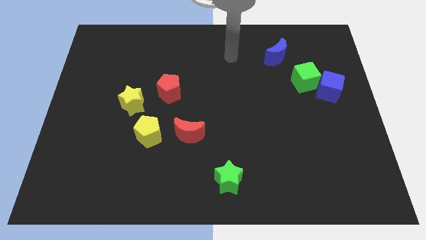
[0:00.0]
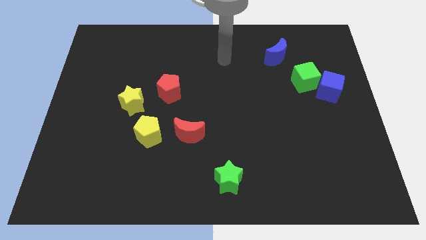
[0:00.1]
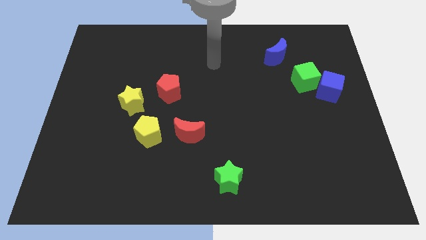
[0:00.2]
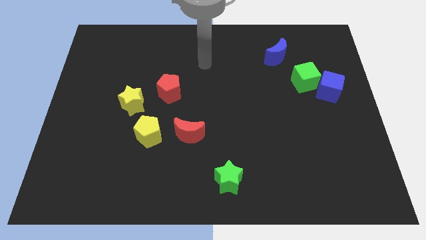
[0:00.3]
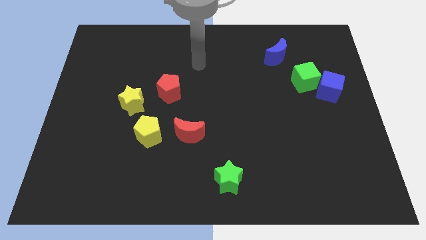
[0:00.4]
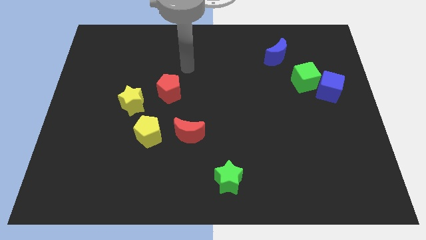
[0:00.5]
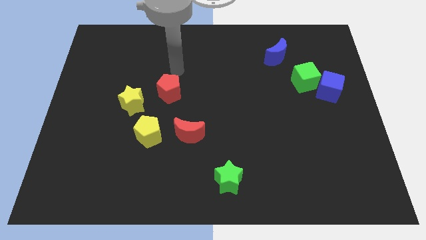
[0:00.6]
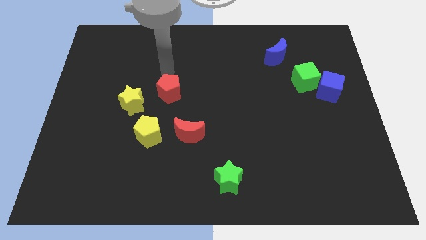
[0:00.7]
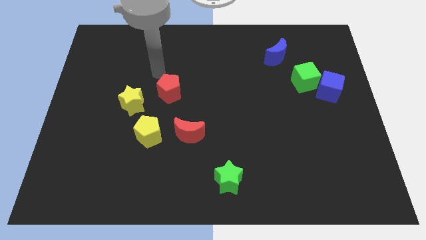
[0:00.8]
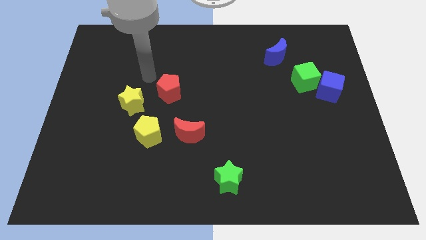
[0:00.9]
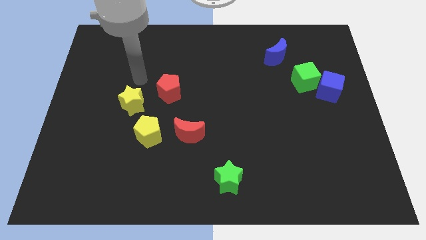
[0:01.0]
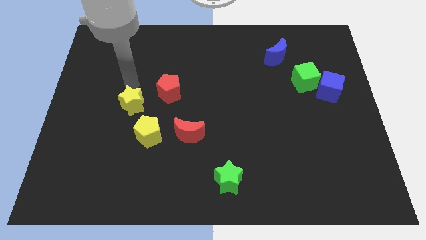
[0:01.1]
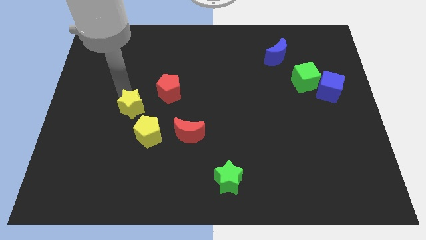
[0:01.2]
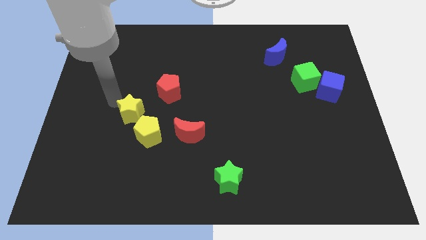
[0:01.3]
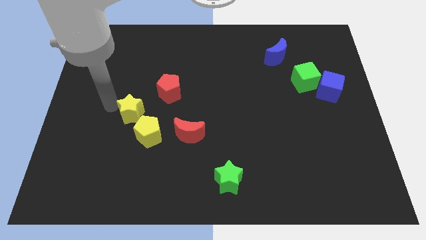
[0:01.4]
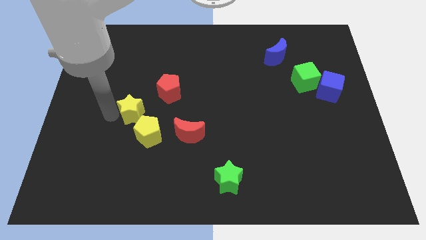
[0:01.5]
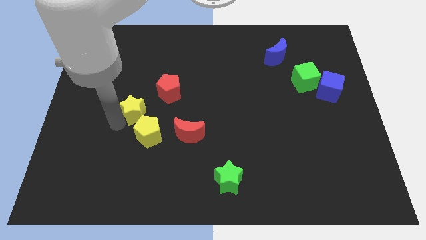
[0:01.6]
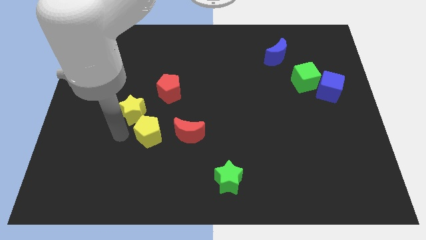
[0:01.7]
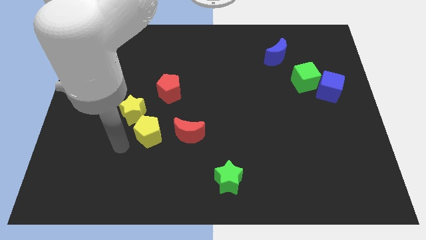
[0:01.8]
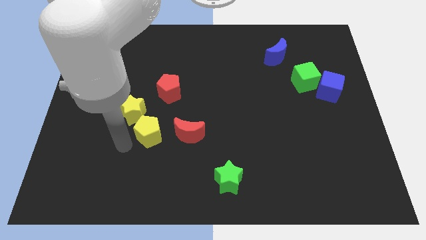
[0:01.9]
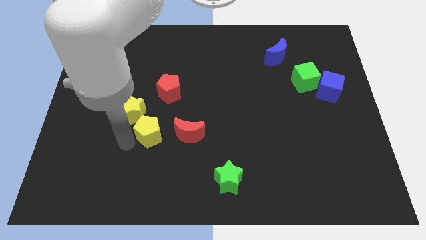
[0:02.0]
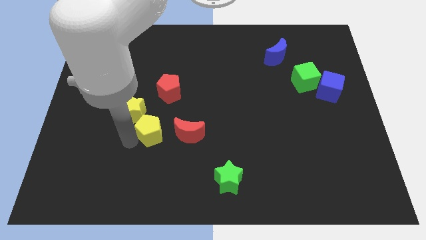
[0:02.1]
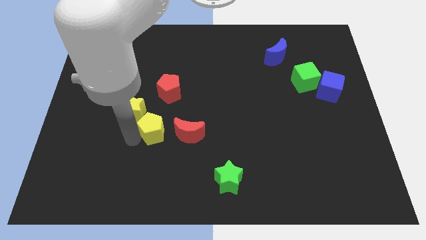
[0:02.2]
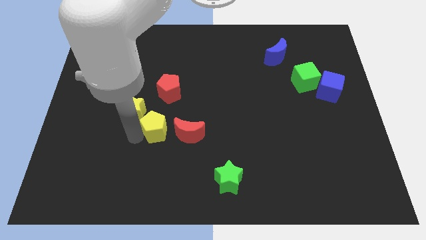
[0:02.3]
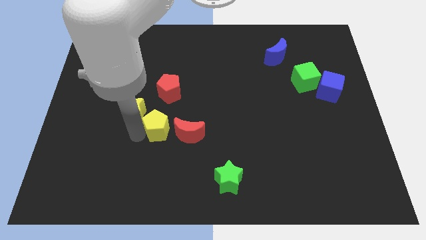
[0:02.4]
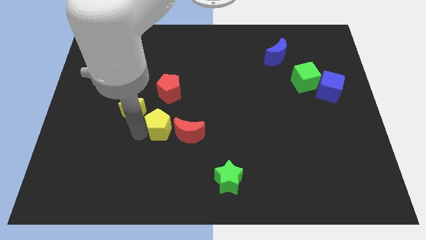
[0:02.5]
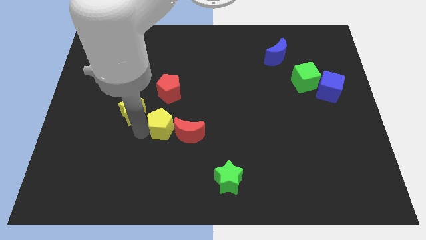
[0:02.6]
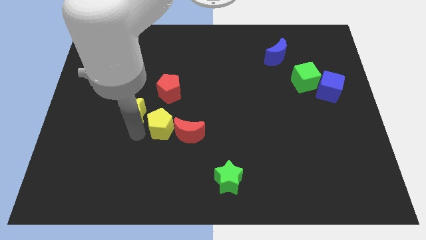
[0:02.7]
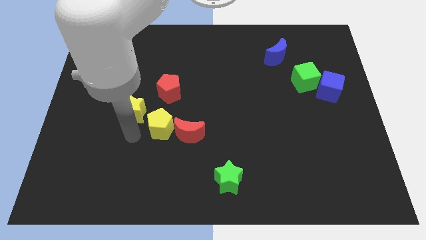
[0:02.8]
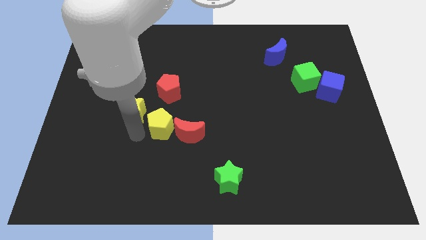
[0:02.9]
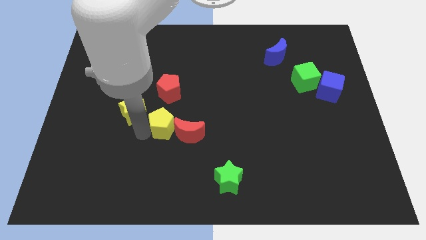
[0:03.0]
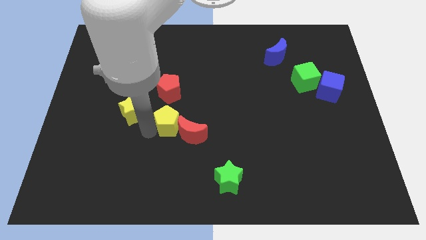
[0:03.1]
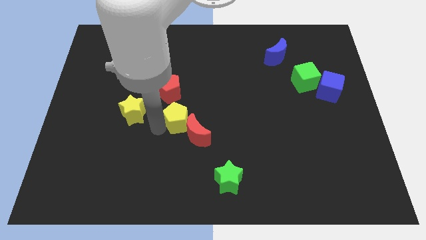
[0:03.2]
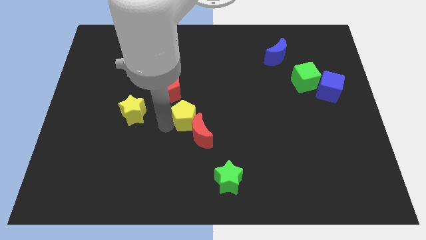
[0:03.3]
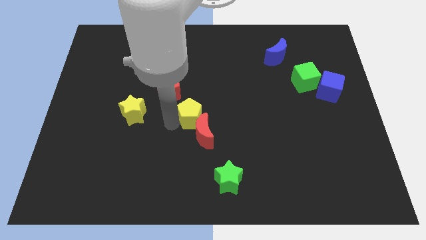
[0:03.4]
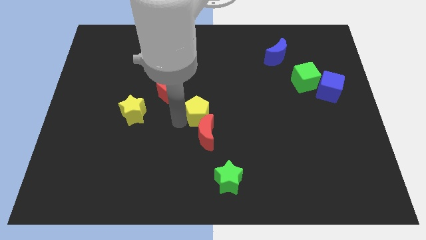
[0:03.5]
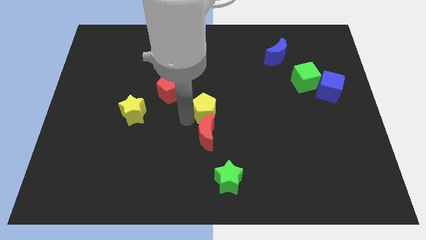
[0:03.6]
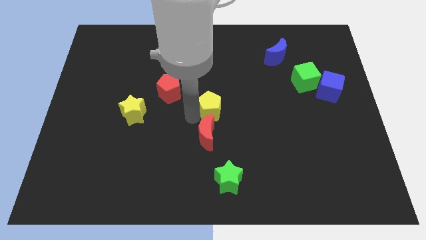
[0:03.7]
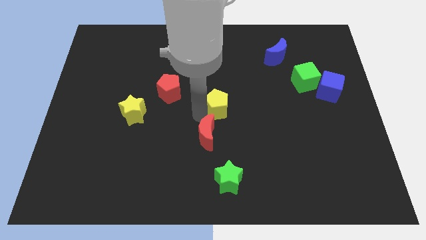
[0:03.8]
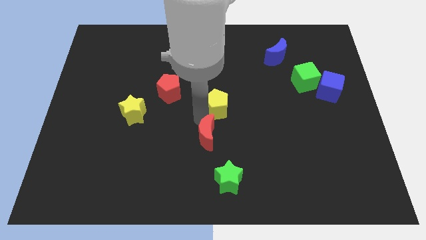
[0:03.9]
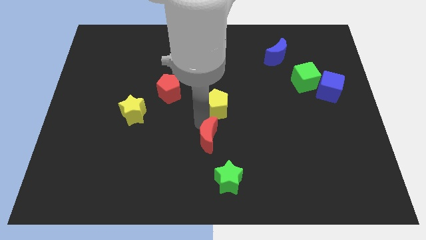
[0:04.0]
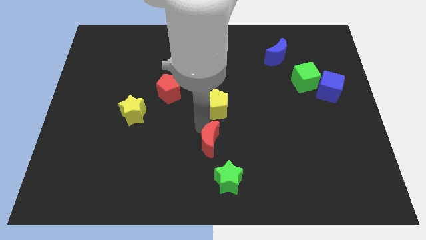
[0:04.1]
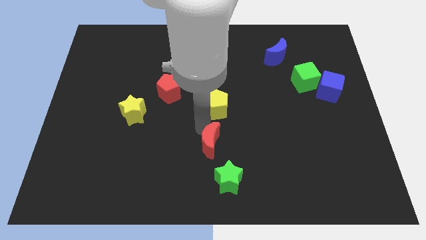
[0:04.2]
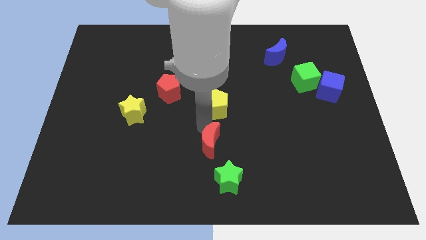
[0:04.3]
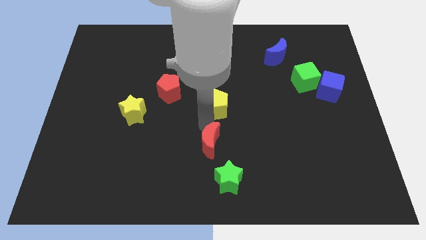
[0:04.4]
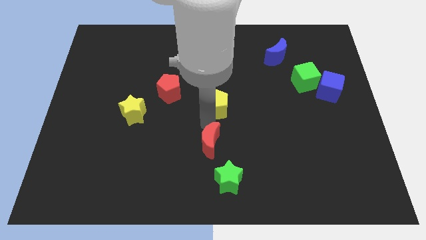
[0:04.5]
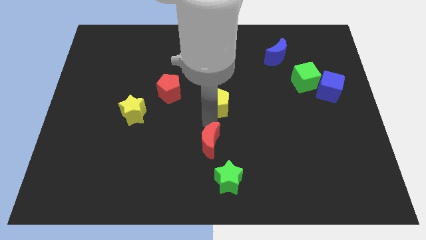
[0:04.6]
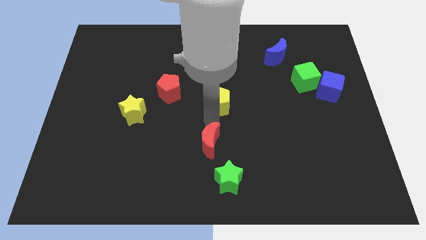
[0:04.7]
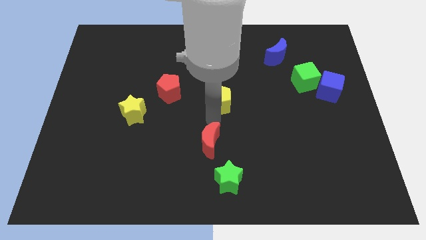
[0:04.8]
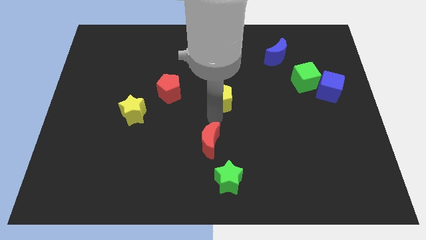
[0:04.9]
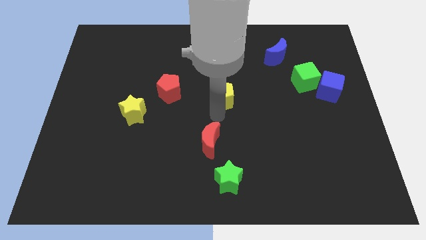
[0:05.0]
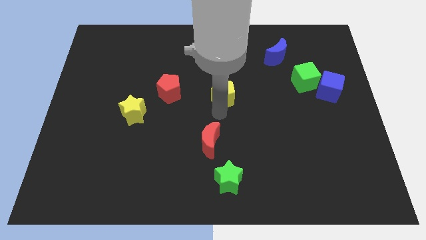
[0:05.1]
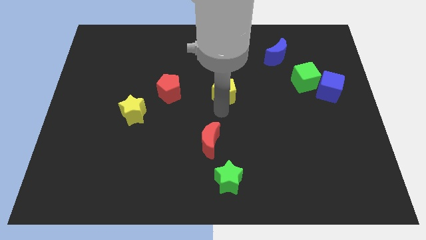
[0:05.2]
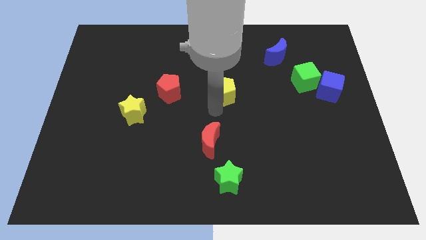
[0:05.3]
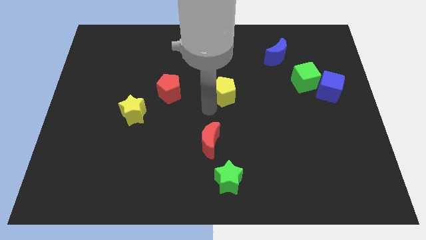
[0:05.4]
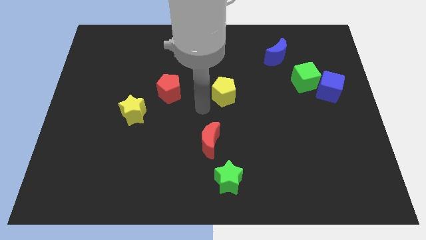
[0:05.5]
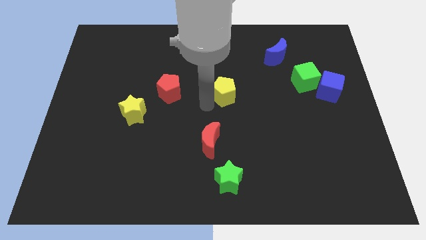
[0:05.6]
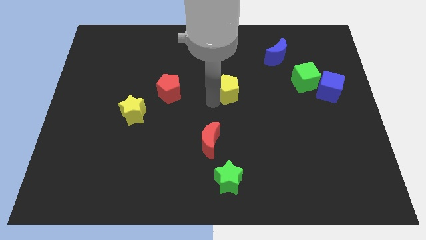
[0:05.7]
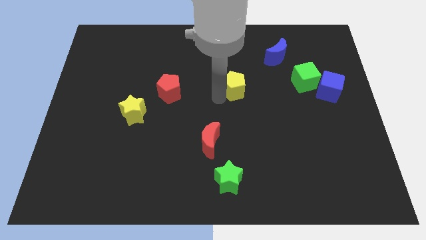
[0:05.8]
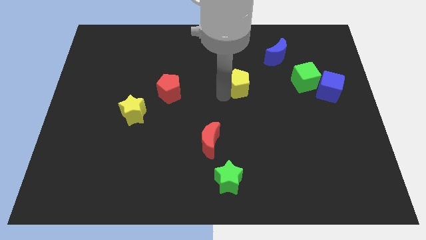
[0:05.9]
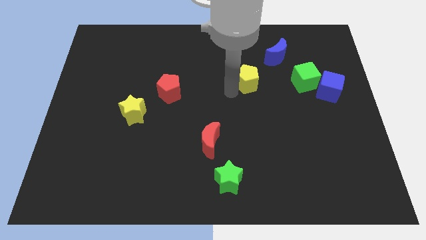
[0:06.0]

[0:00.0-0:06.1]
push the yellow pentagon to the bottom left side of the blue moon
